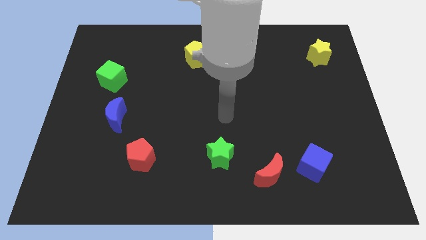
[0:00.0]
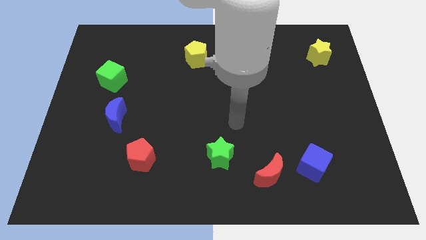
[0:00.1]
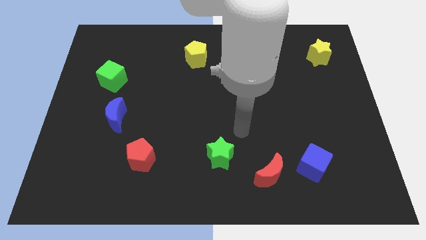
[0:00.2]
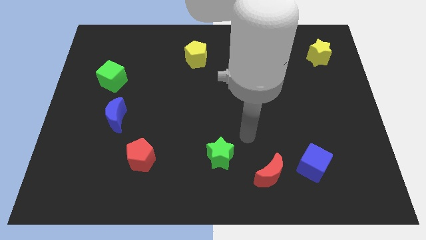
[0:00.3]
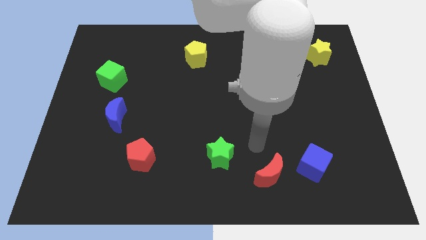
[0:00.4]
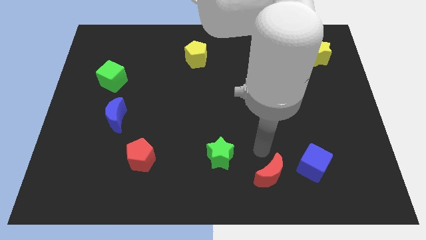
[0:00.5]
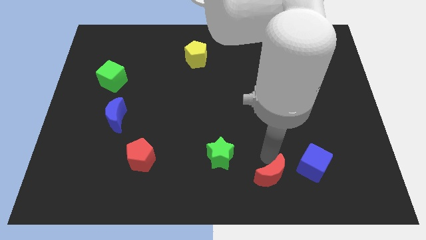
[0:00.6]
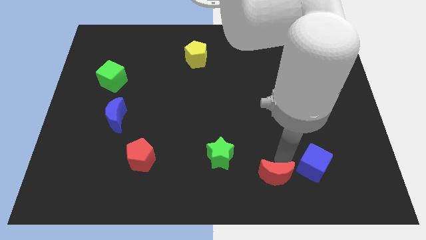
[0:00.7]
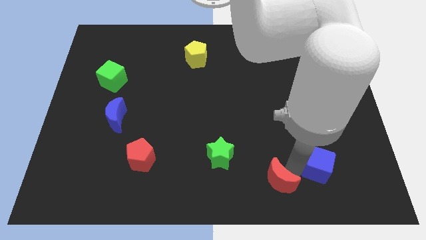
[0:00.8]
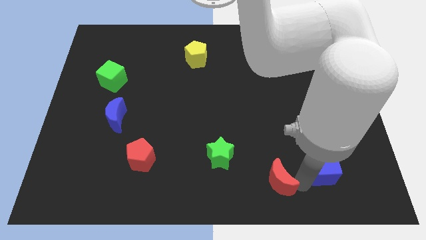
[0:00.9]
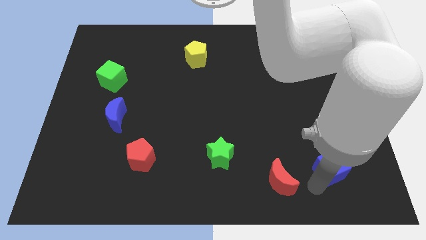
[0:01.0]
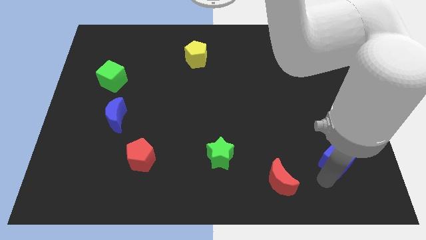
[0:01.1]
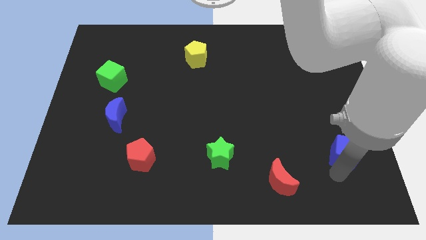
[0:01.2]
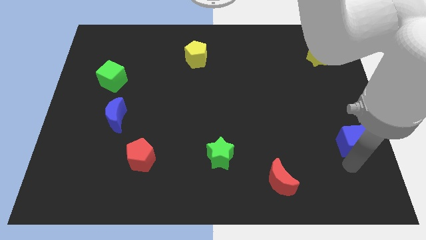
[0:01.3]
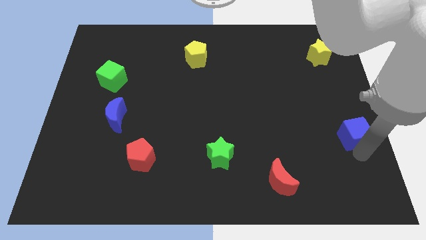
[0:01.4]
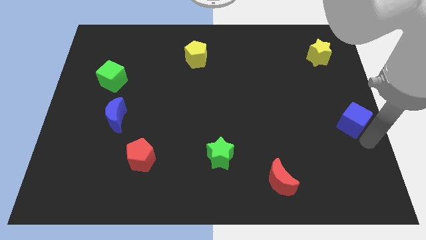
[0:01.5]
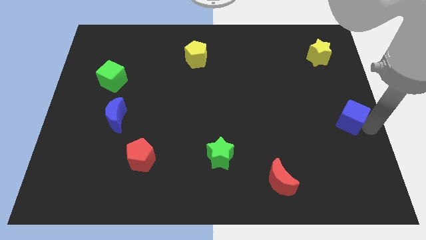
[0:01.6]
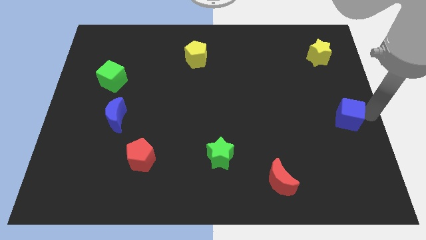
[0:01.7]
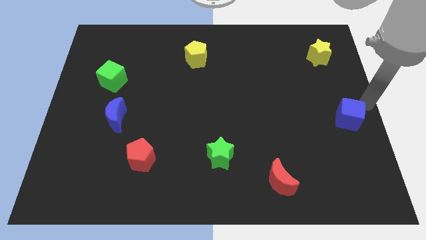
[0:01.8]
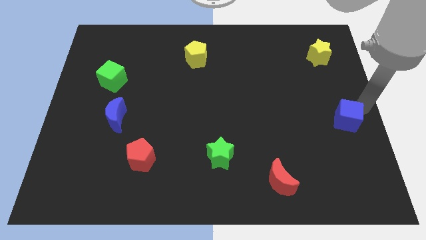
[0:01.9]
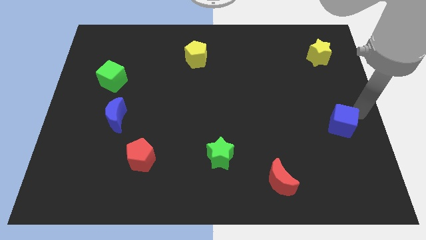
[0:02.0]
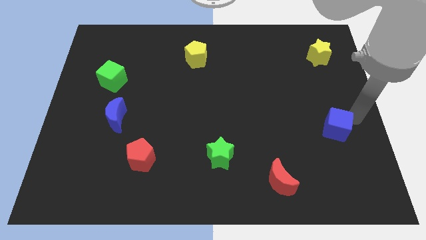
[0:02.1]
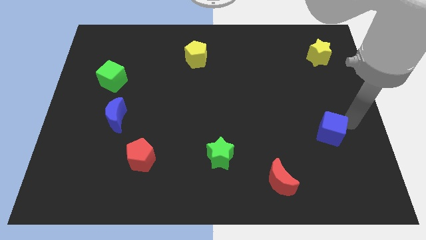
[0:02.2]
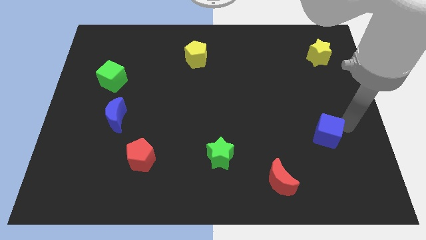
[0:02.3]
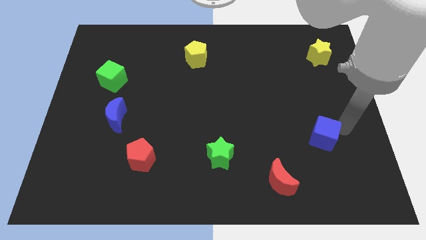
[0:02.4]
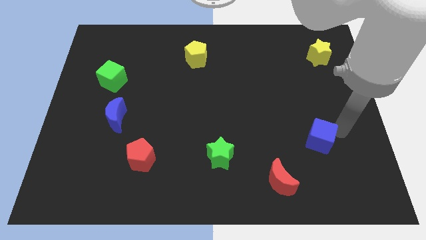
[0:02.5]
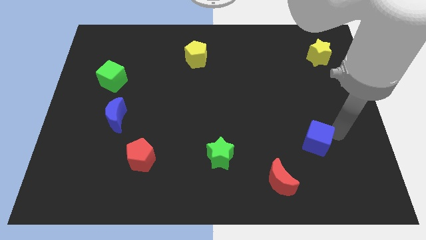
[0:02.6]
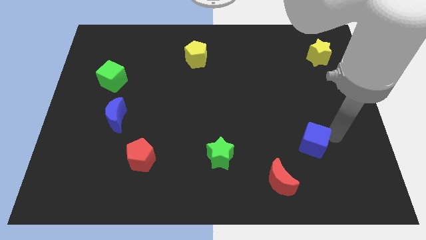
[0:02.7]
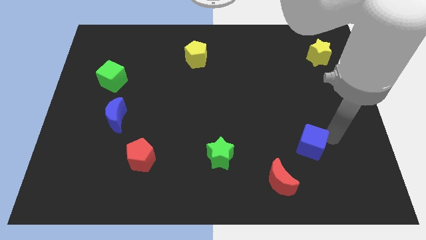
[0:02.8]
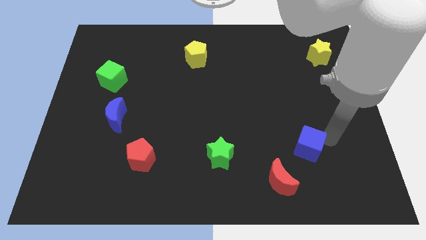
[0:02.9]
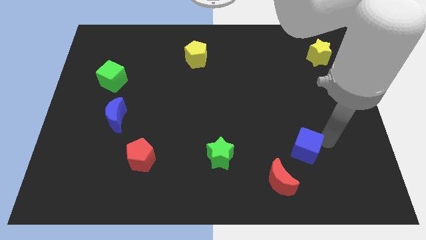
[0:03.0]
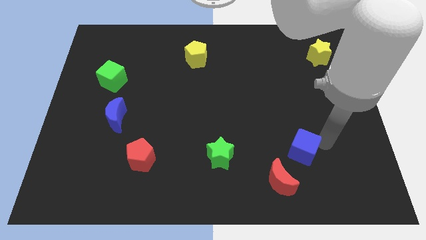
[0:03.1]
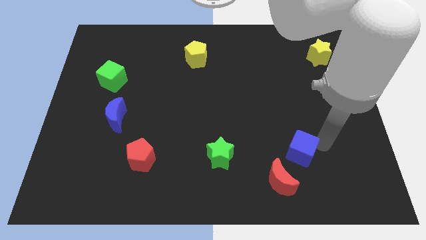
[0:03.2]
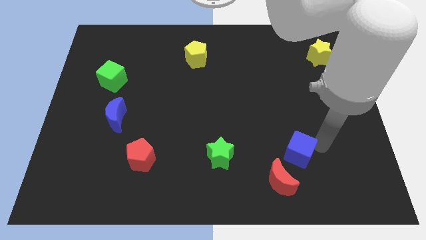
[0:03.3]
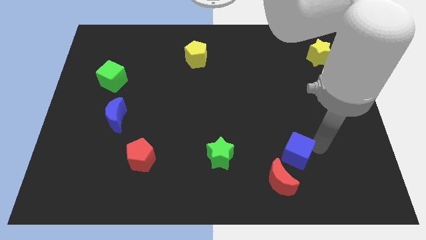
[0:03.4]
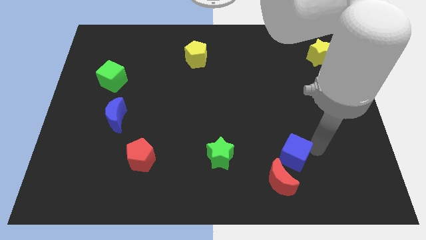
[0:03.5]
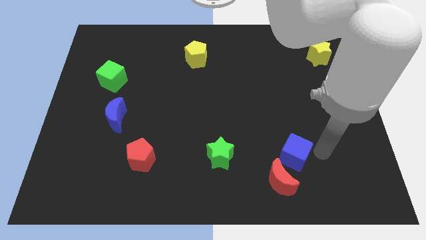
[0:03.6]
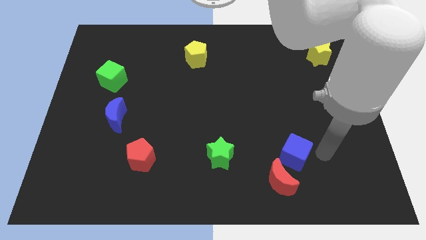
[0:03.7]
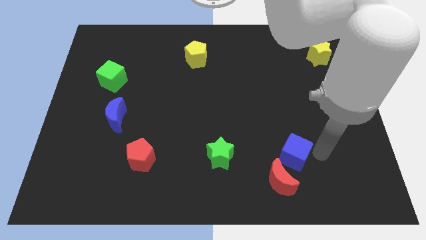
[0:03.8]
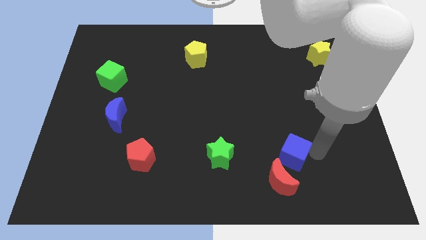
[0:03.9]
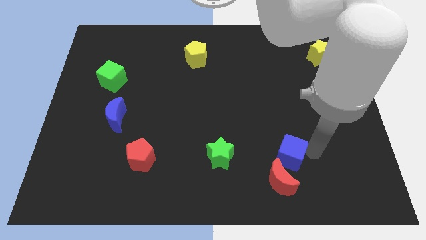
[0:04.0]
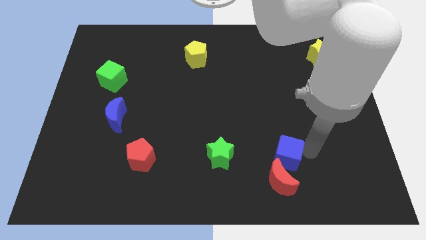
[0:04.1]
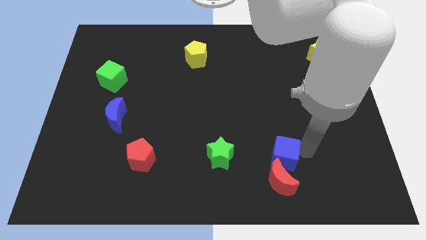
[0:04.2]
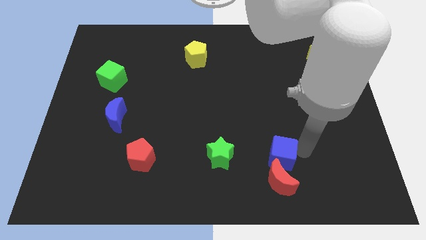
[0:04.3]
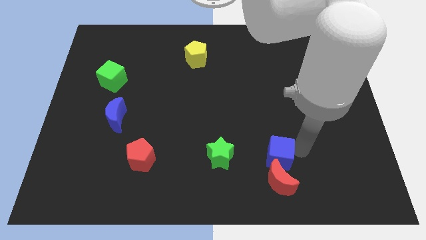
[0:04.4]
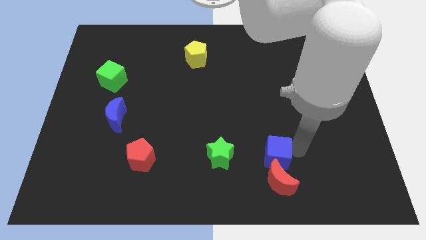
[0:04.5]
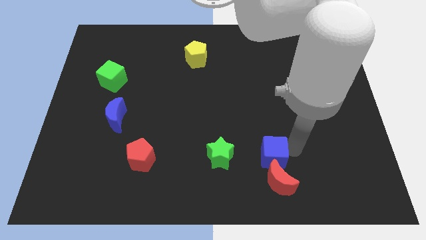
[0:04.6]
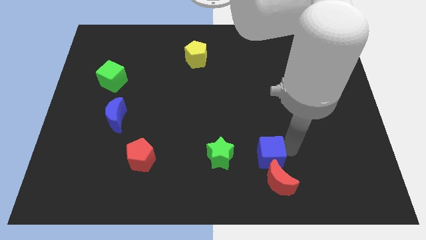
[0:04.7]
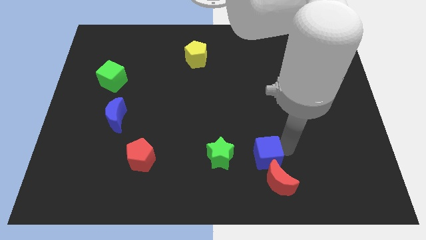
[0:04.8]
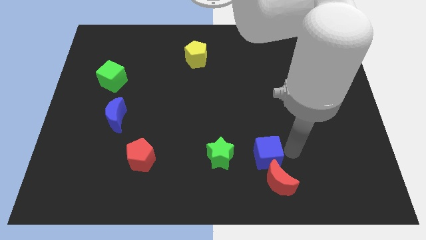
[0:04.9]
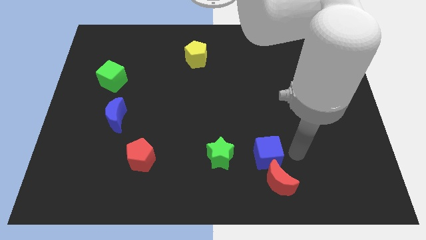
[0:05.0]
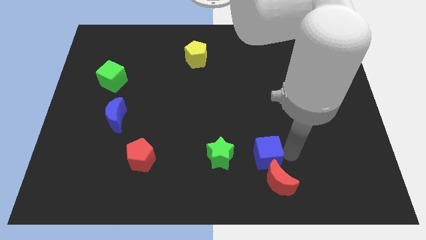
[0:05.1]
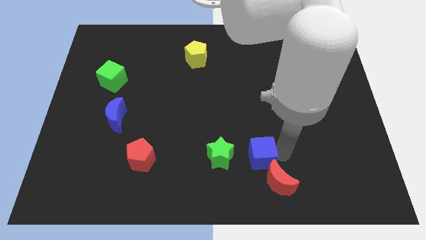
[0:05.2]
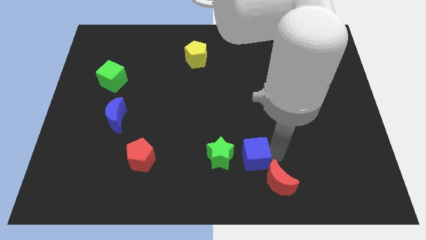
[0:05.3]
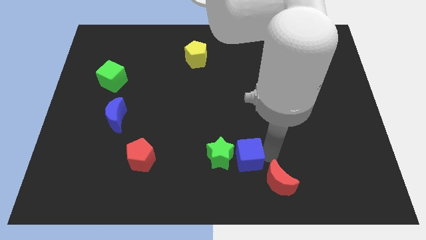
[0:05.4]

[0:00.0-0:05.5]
slide the blue cube next to the green star

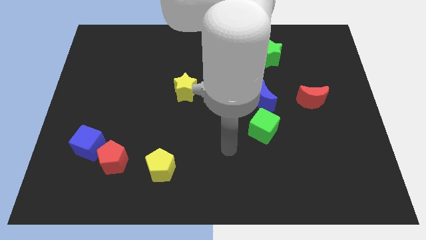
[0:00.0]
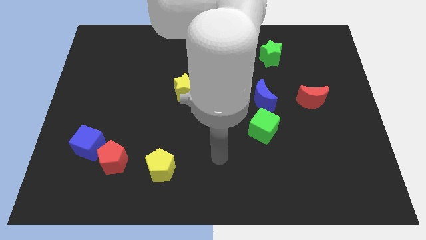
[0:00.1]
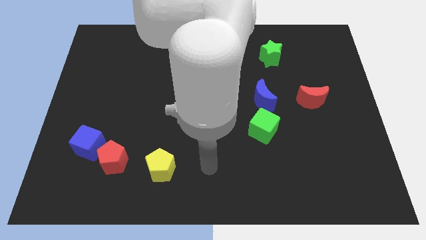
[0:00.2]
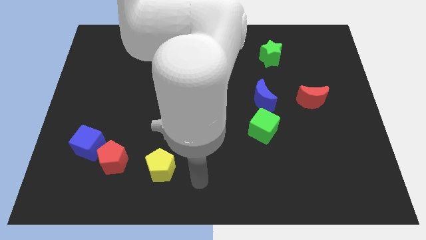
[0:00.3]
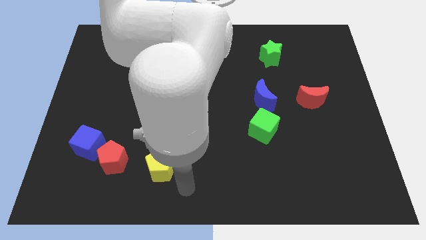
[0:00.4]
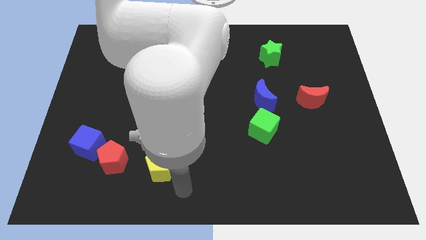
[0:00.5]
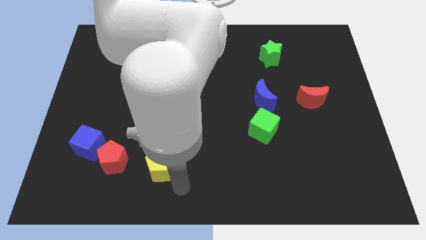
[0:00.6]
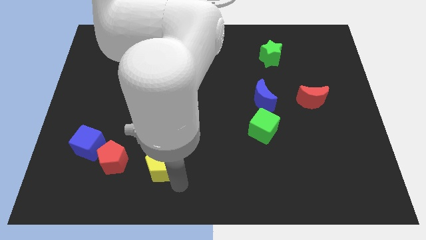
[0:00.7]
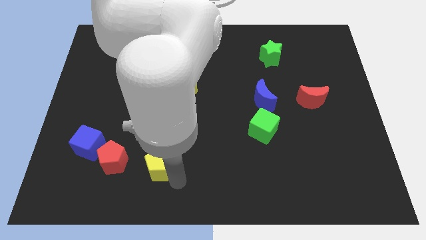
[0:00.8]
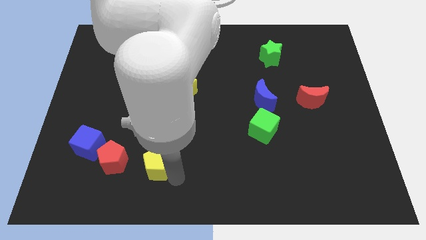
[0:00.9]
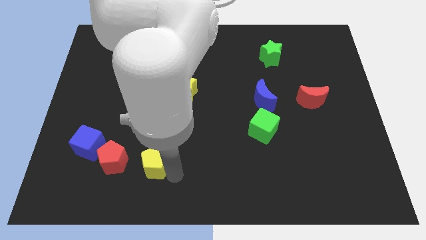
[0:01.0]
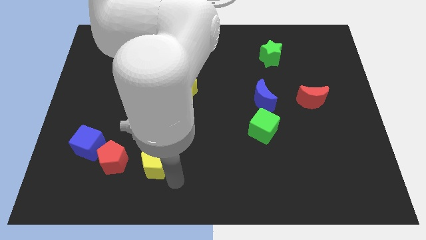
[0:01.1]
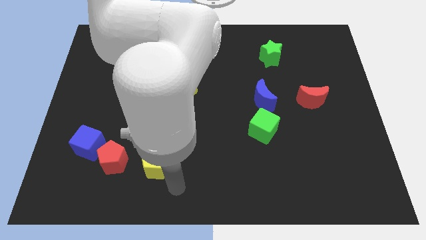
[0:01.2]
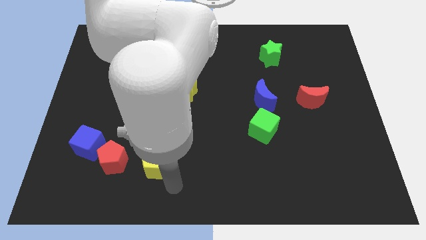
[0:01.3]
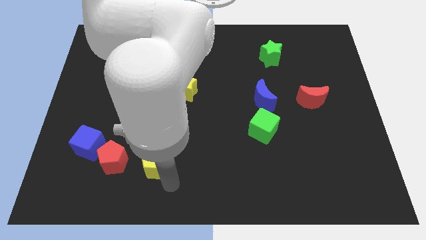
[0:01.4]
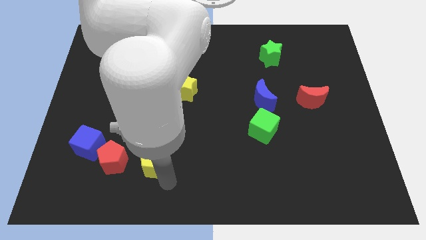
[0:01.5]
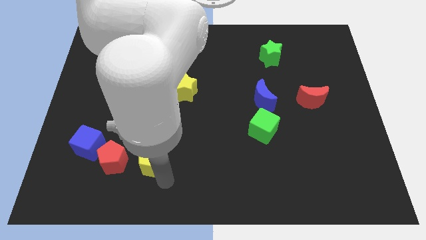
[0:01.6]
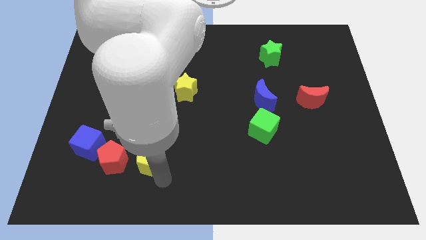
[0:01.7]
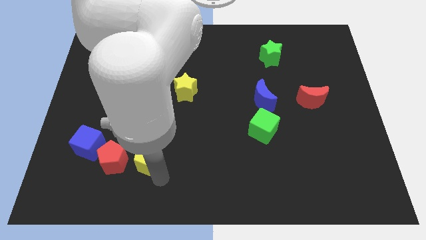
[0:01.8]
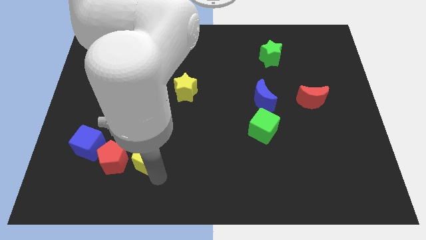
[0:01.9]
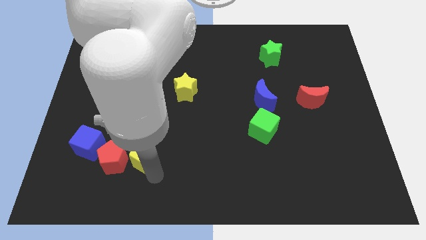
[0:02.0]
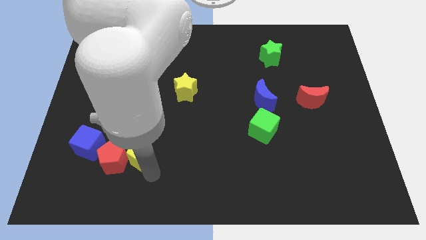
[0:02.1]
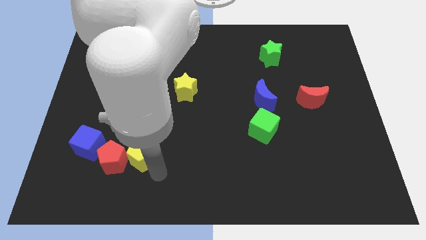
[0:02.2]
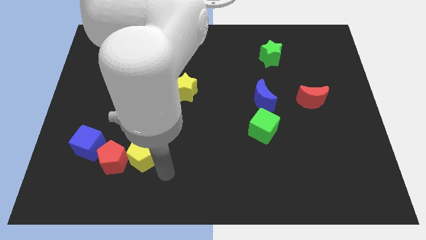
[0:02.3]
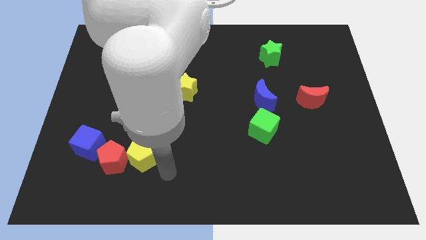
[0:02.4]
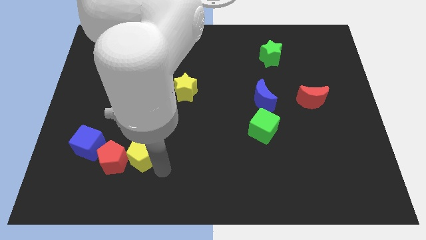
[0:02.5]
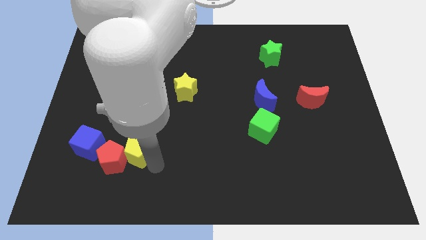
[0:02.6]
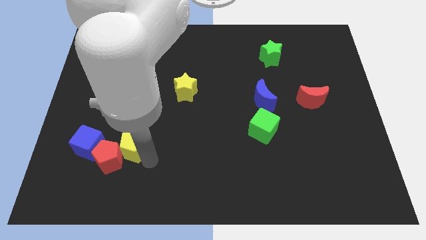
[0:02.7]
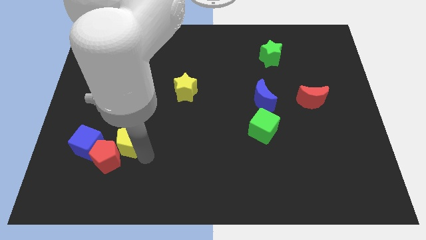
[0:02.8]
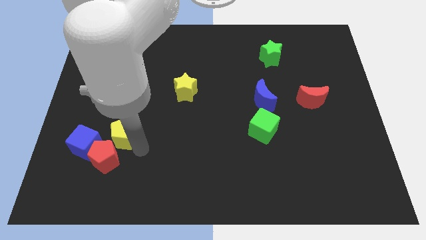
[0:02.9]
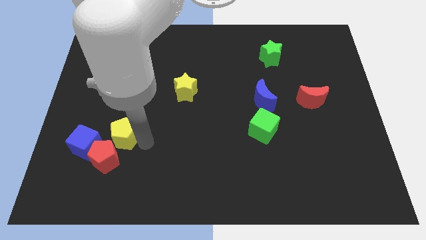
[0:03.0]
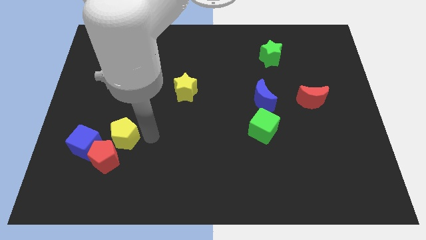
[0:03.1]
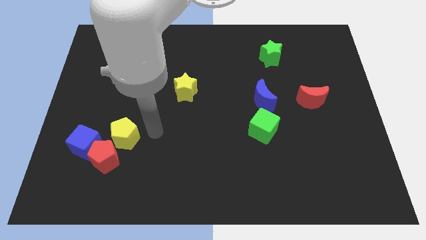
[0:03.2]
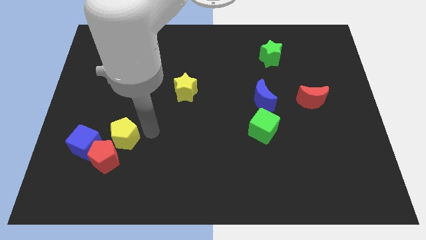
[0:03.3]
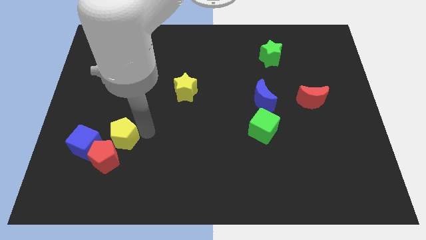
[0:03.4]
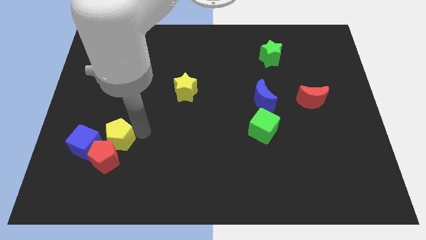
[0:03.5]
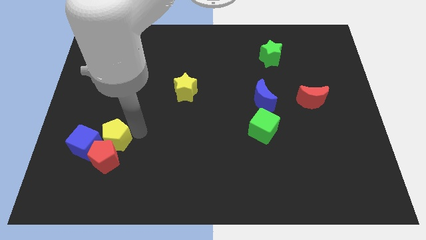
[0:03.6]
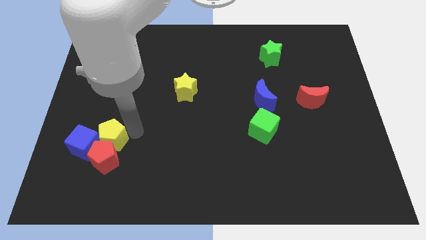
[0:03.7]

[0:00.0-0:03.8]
move the yellow pentagon next to the blue cube
